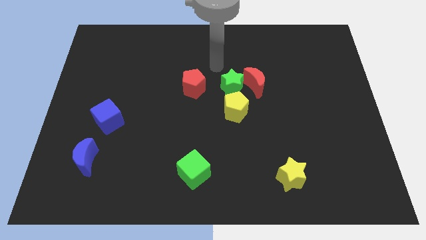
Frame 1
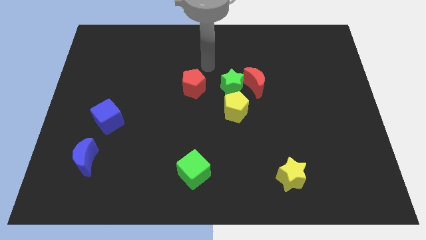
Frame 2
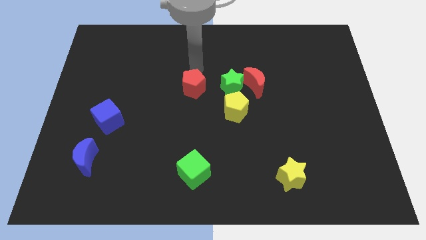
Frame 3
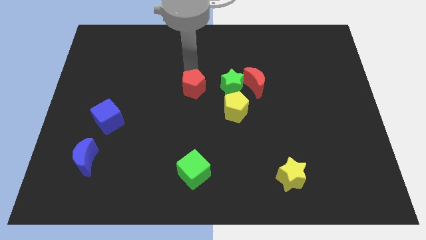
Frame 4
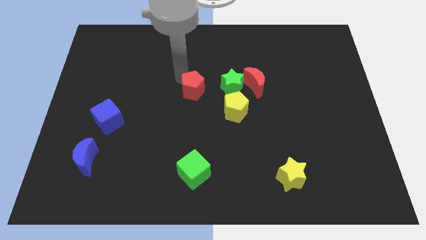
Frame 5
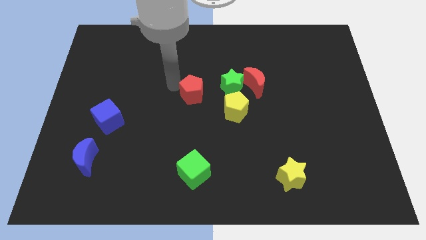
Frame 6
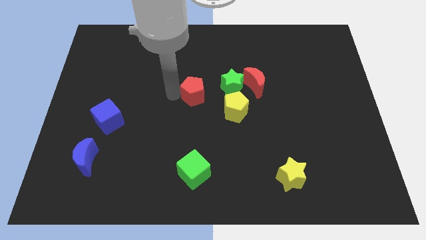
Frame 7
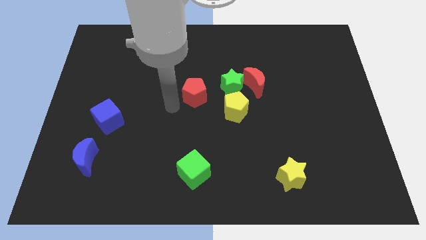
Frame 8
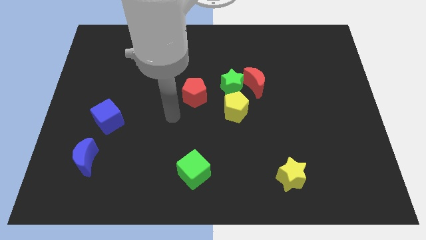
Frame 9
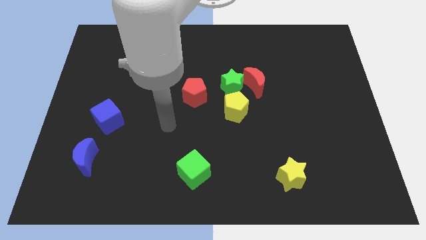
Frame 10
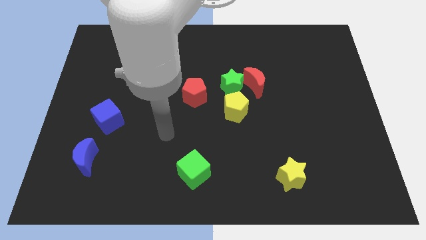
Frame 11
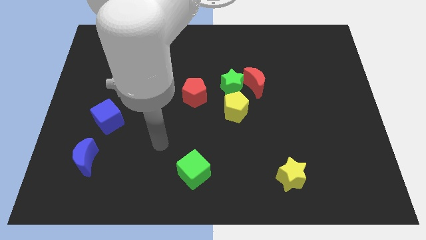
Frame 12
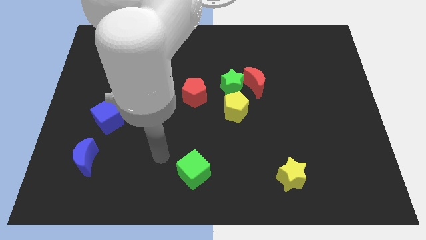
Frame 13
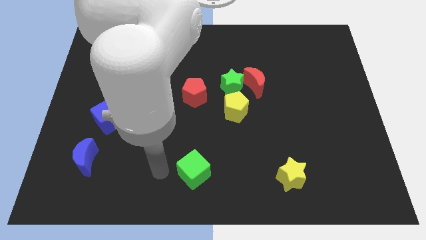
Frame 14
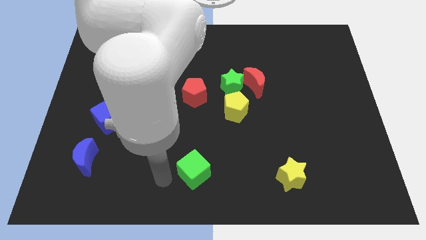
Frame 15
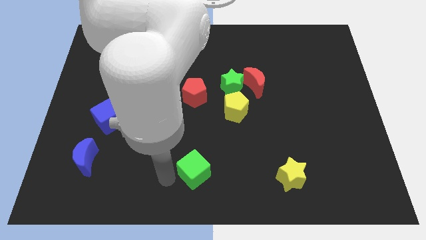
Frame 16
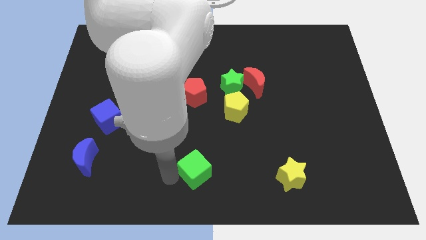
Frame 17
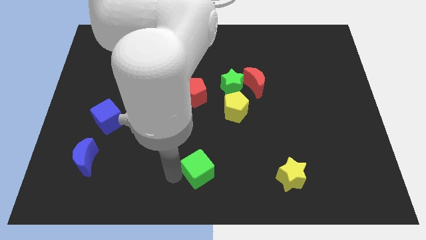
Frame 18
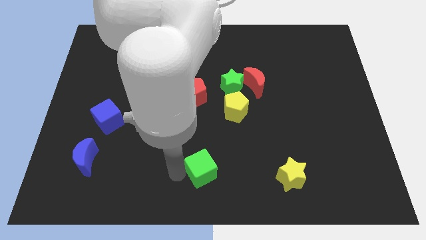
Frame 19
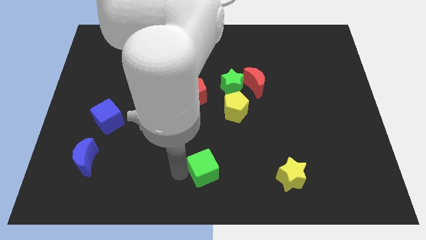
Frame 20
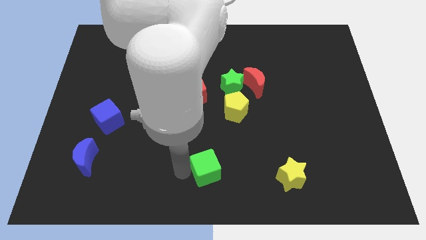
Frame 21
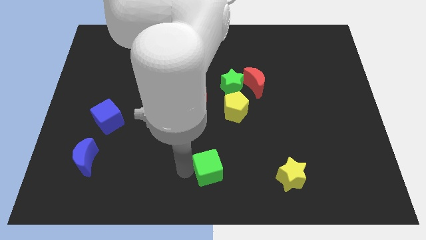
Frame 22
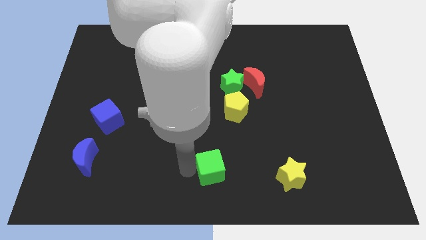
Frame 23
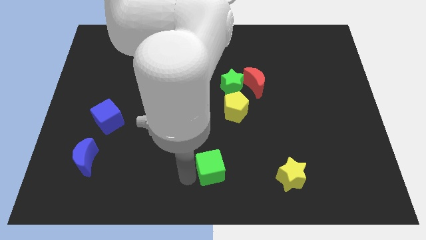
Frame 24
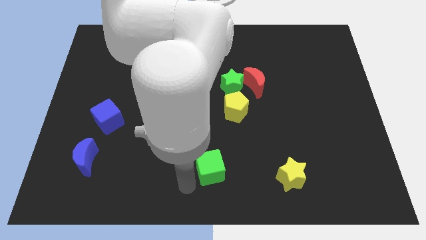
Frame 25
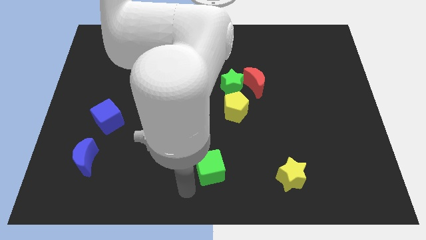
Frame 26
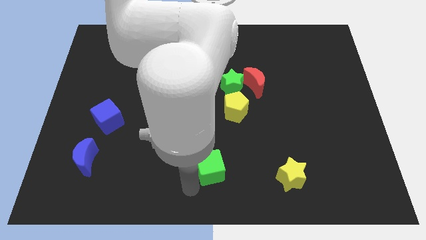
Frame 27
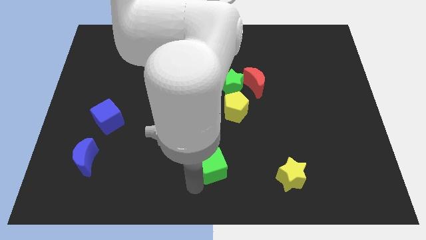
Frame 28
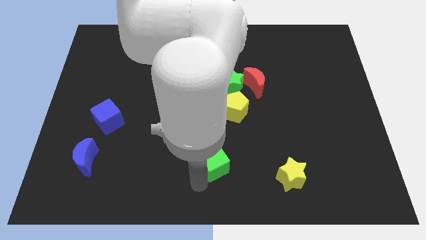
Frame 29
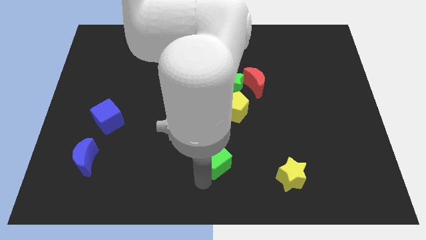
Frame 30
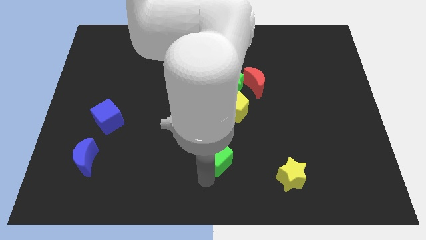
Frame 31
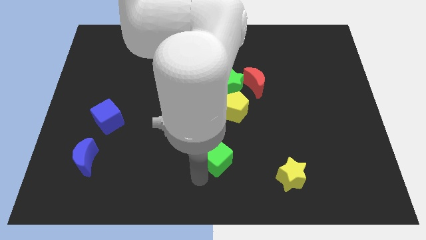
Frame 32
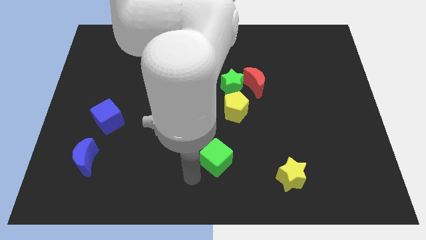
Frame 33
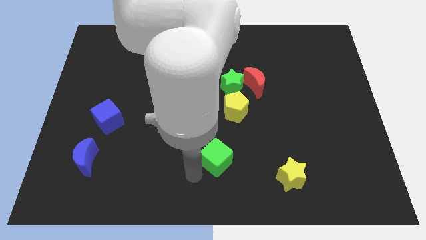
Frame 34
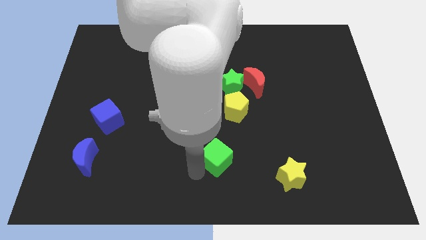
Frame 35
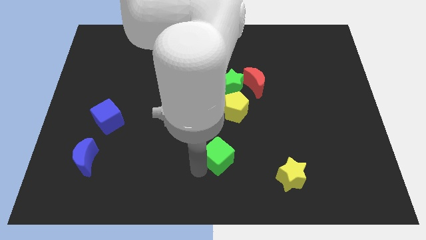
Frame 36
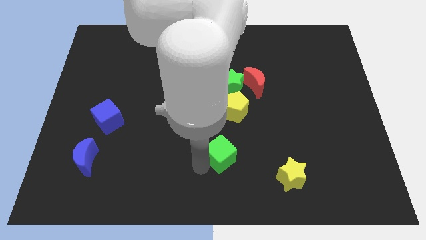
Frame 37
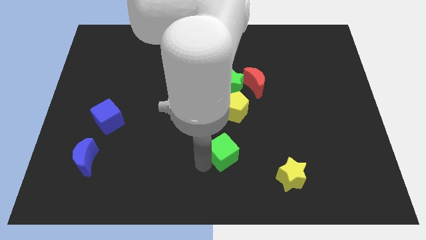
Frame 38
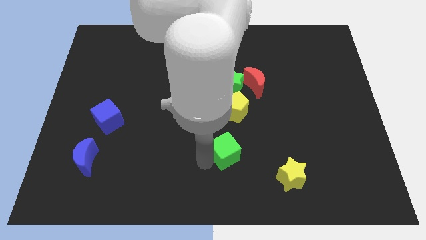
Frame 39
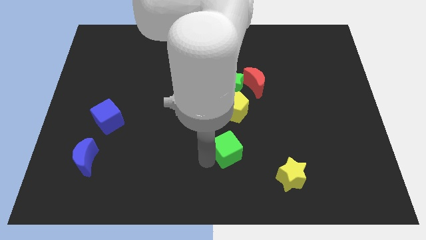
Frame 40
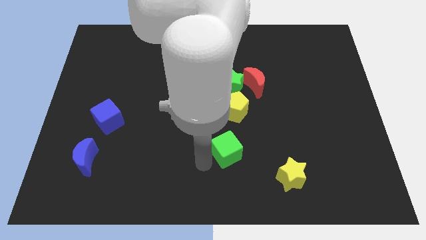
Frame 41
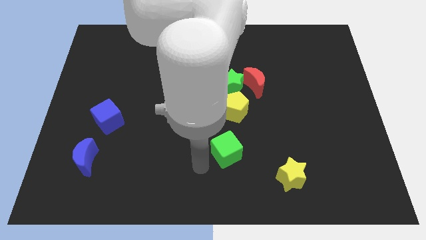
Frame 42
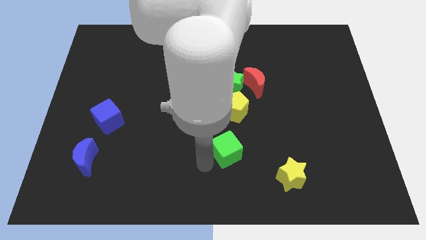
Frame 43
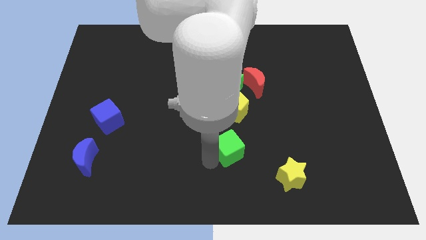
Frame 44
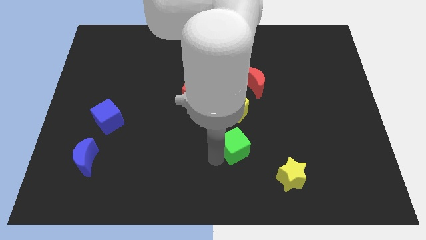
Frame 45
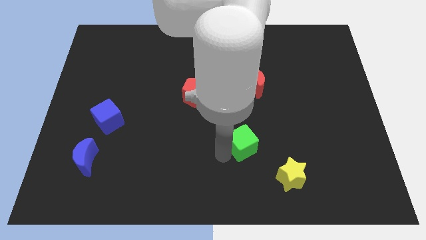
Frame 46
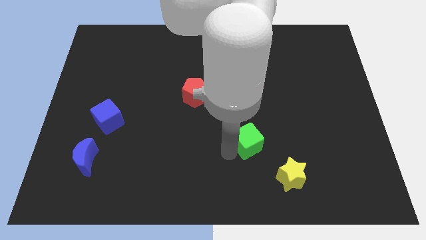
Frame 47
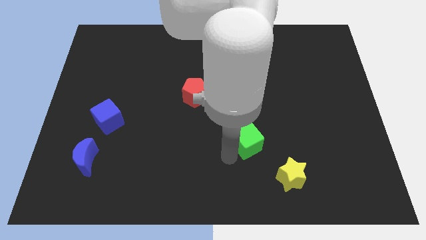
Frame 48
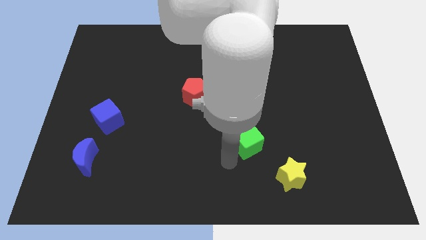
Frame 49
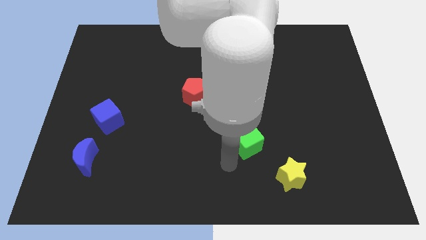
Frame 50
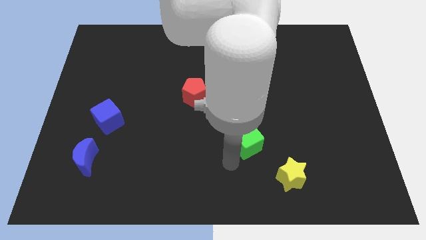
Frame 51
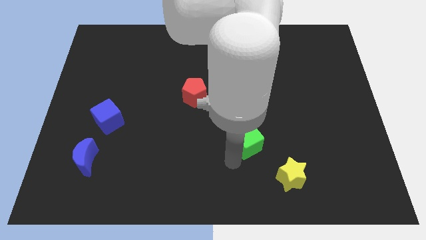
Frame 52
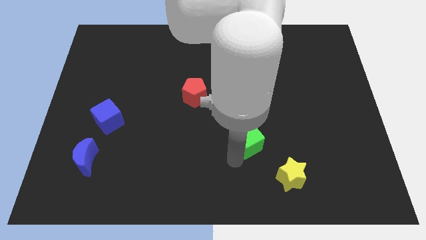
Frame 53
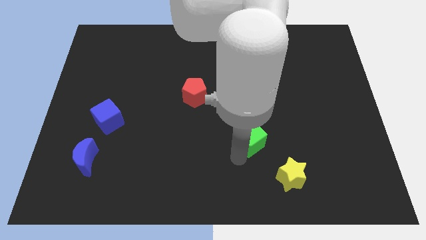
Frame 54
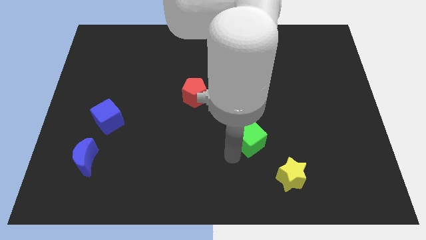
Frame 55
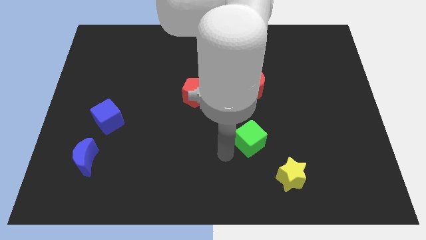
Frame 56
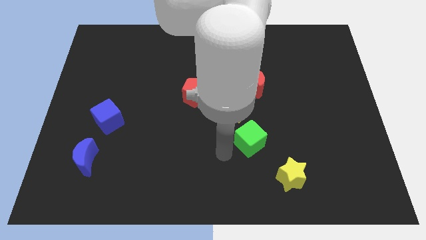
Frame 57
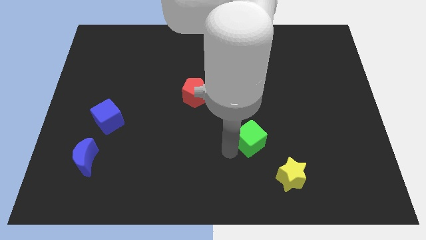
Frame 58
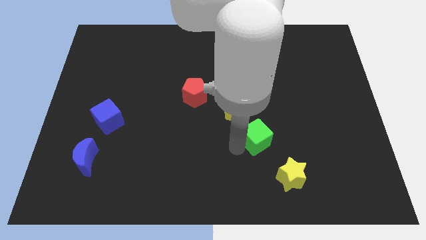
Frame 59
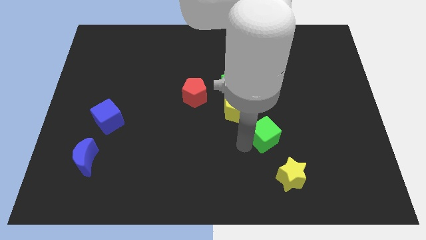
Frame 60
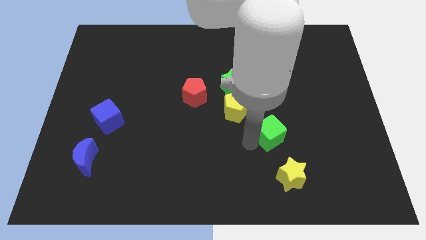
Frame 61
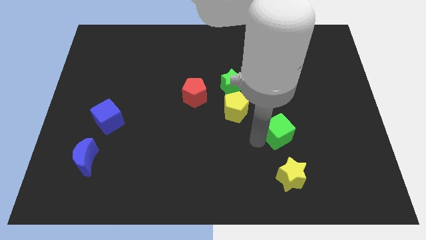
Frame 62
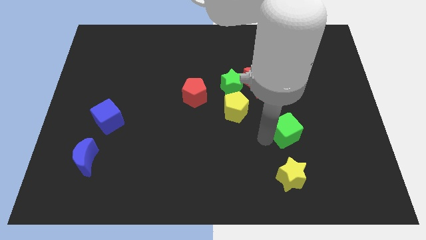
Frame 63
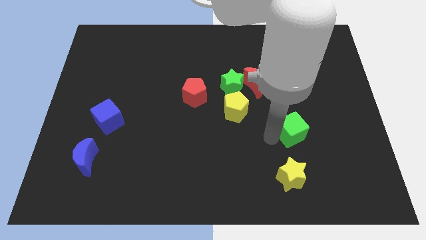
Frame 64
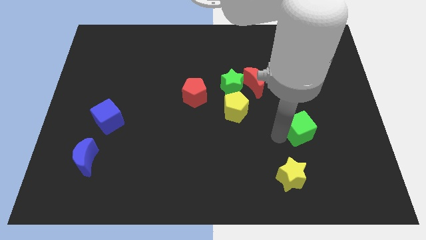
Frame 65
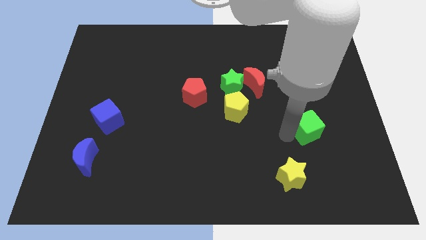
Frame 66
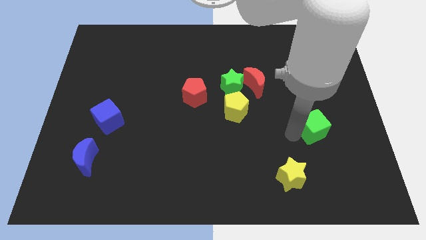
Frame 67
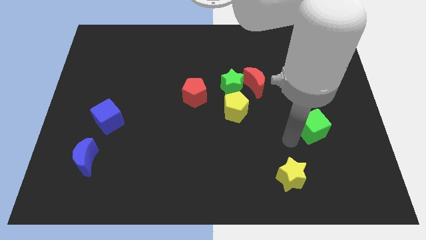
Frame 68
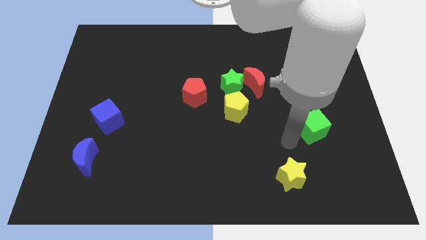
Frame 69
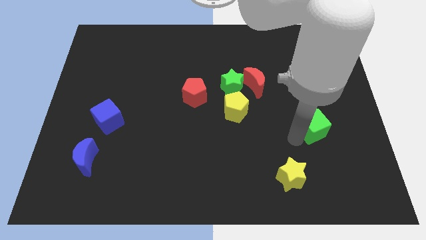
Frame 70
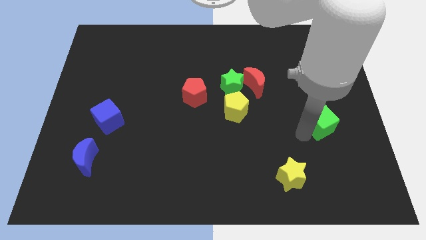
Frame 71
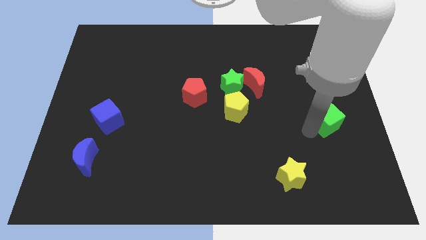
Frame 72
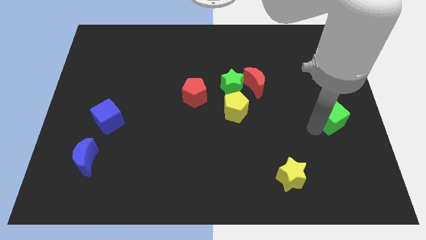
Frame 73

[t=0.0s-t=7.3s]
put the green cube to the center right
